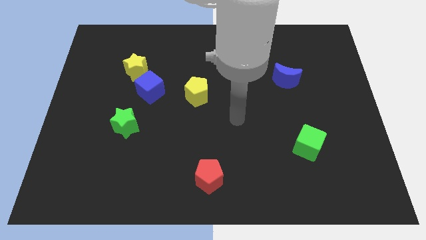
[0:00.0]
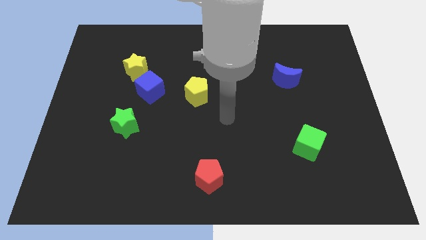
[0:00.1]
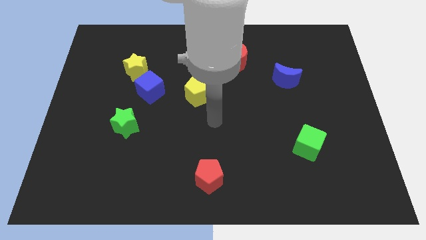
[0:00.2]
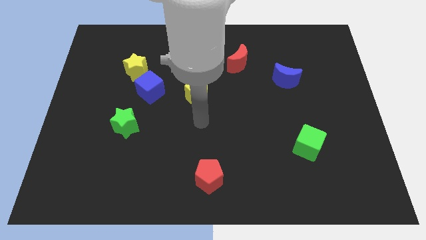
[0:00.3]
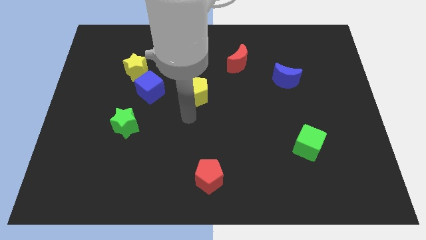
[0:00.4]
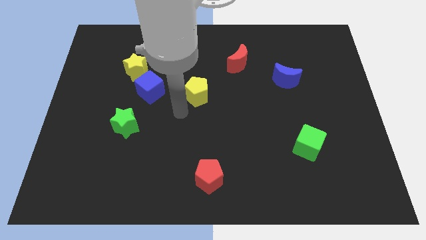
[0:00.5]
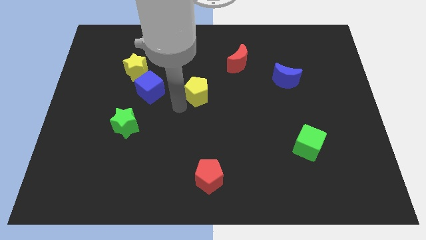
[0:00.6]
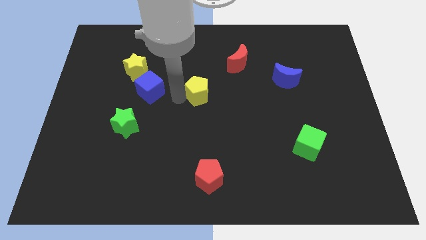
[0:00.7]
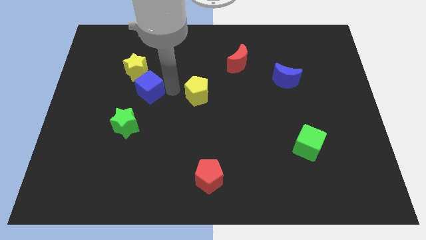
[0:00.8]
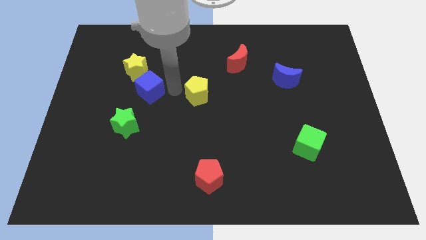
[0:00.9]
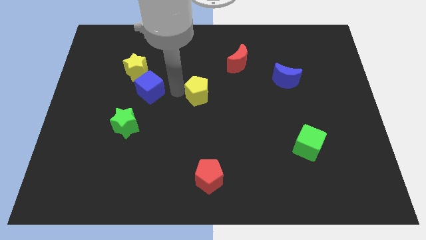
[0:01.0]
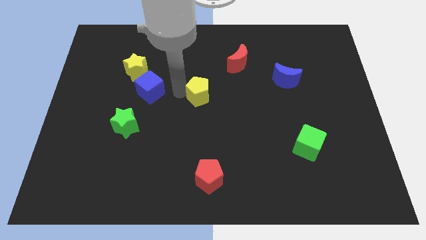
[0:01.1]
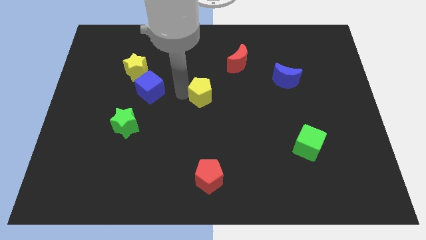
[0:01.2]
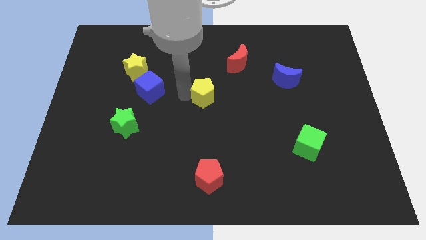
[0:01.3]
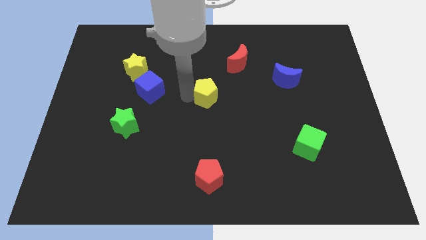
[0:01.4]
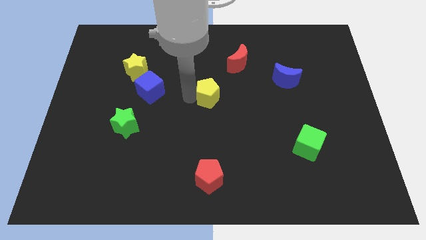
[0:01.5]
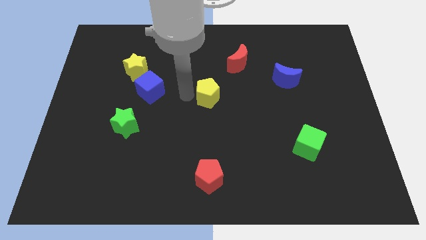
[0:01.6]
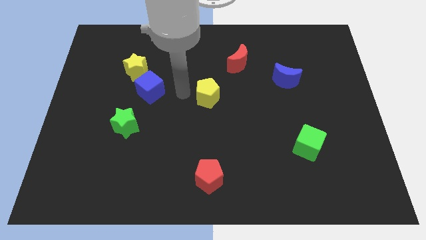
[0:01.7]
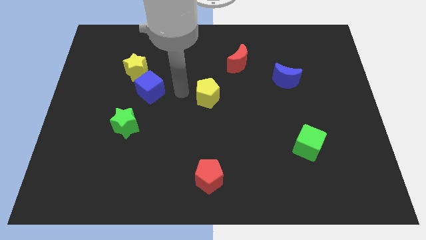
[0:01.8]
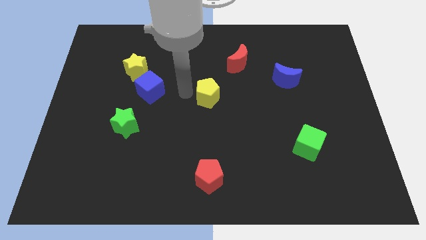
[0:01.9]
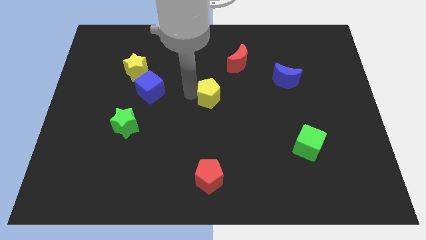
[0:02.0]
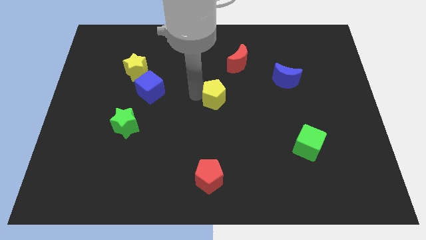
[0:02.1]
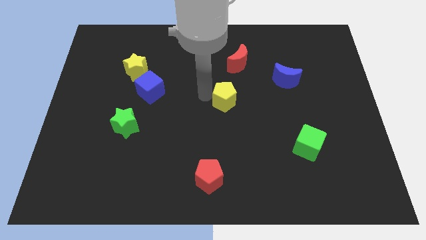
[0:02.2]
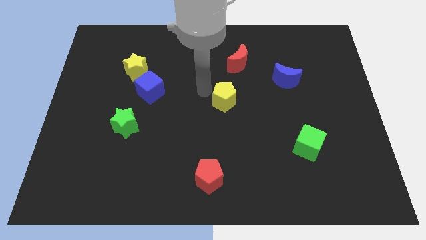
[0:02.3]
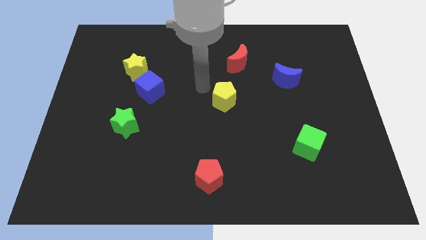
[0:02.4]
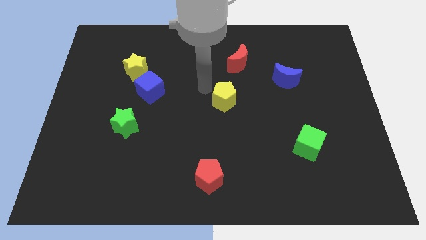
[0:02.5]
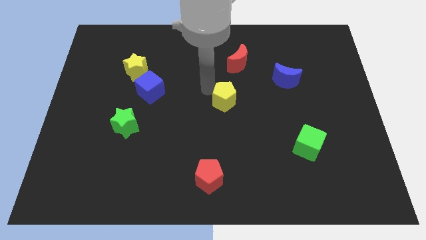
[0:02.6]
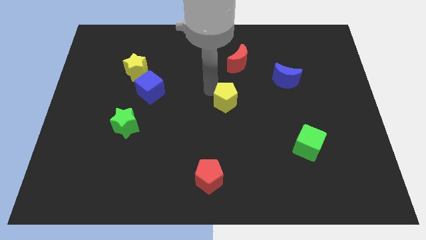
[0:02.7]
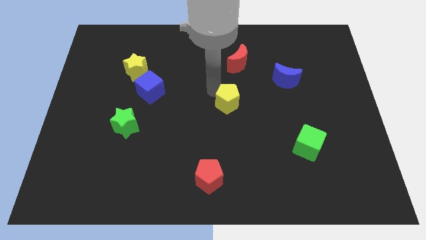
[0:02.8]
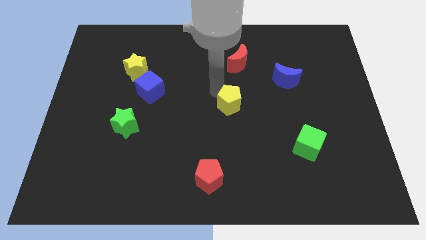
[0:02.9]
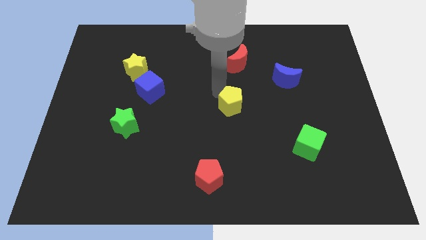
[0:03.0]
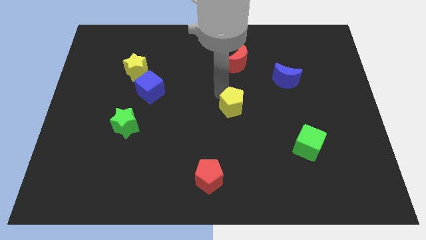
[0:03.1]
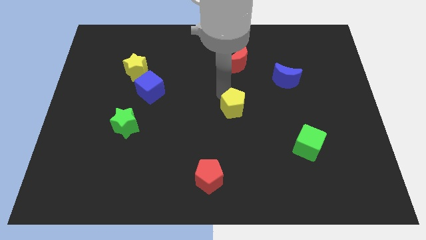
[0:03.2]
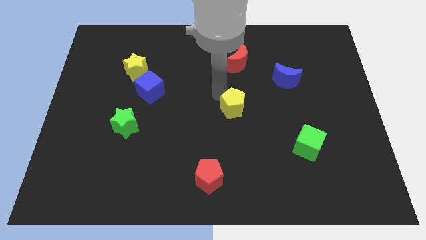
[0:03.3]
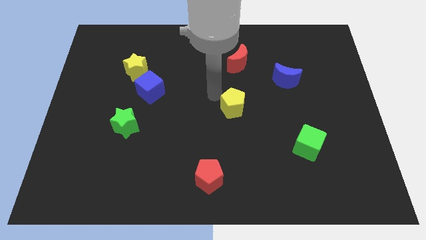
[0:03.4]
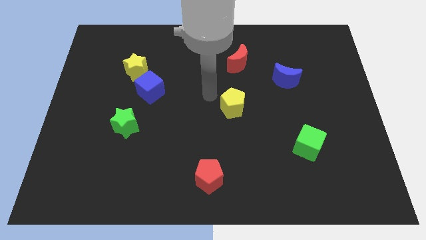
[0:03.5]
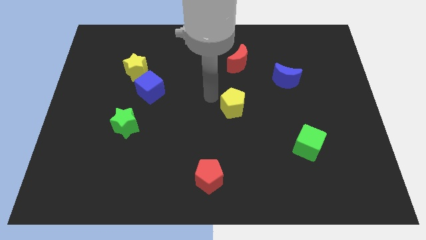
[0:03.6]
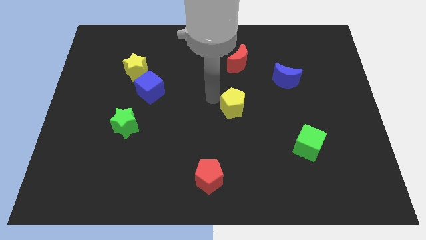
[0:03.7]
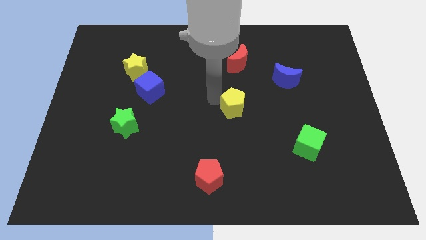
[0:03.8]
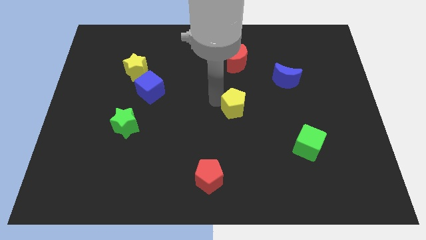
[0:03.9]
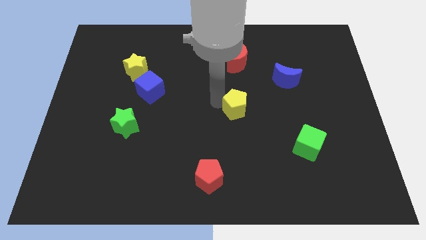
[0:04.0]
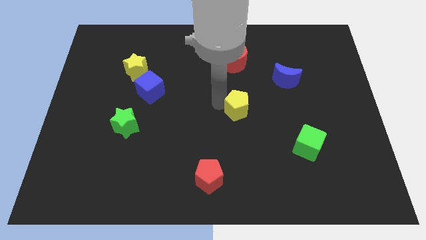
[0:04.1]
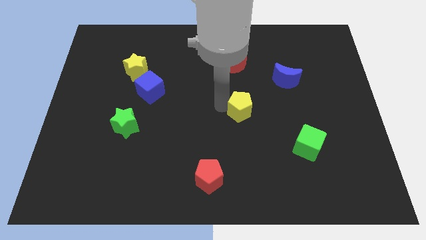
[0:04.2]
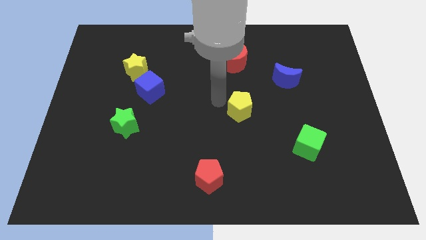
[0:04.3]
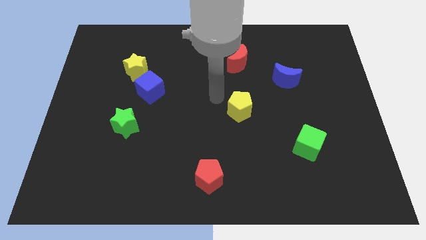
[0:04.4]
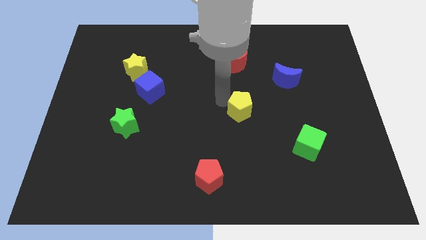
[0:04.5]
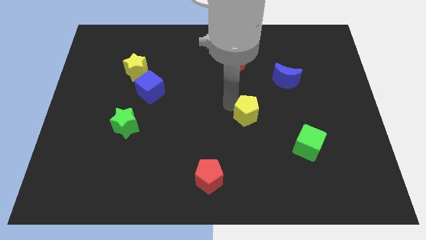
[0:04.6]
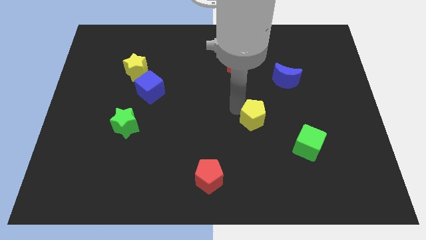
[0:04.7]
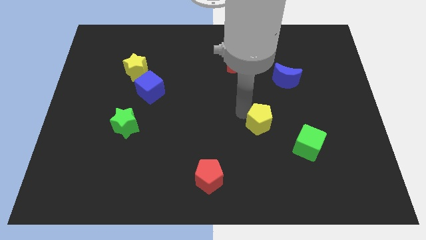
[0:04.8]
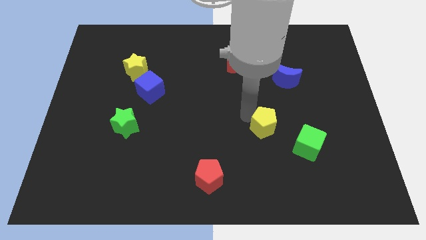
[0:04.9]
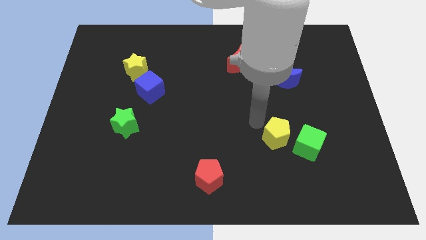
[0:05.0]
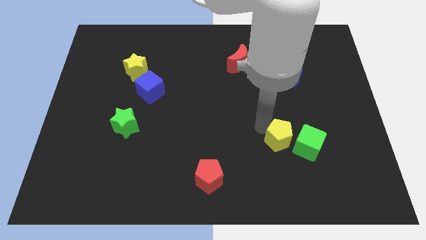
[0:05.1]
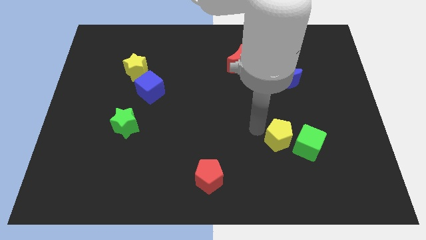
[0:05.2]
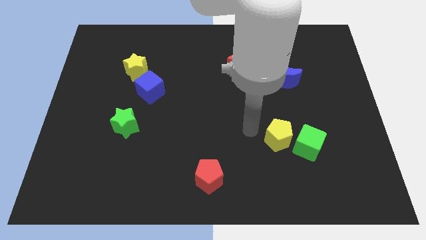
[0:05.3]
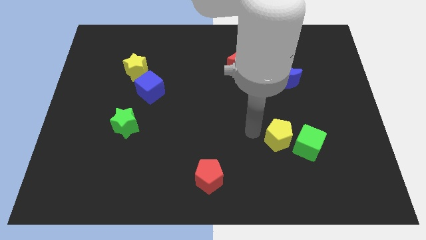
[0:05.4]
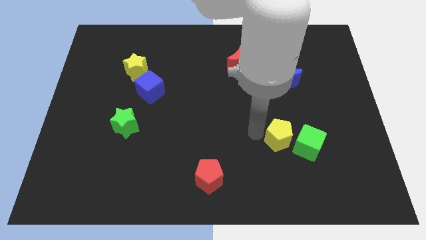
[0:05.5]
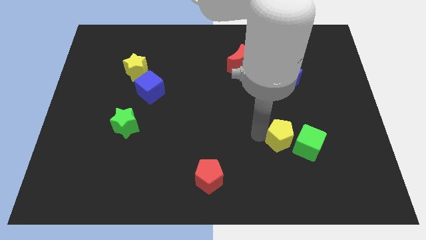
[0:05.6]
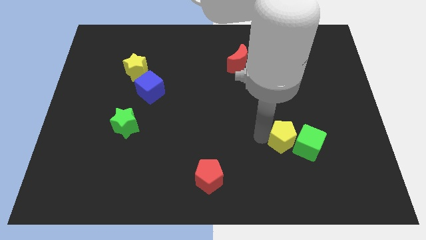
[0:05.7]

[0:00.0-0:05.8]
push the yellow pentagon to the green cube

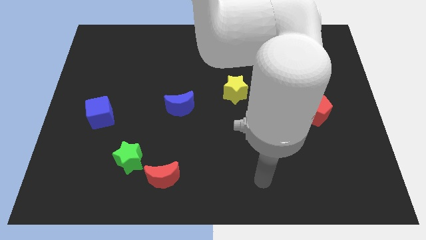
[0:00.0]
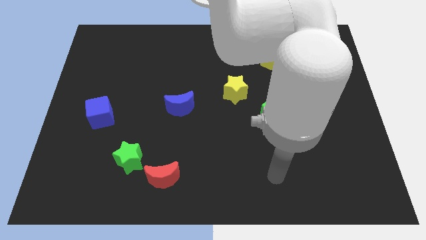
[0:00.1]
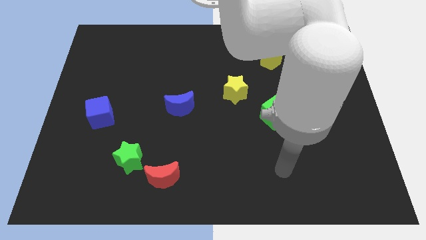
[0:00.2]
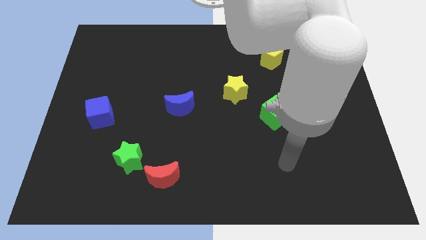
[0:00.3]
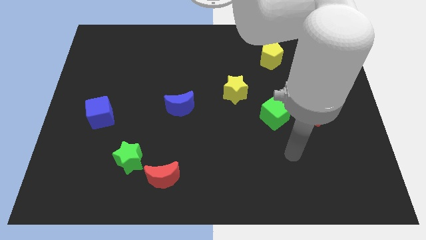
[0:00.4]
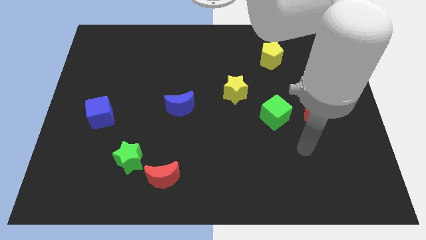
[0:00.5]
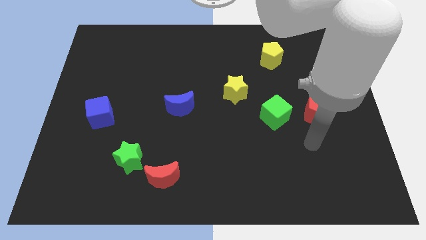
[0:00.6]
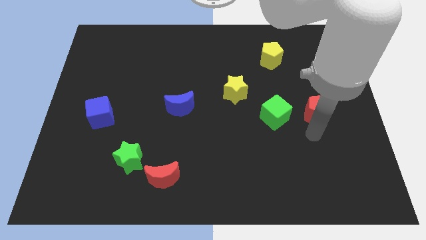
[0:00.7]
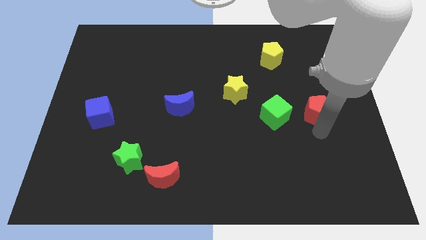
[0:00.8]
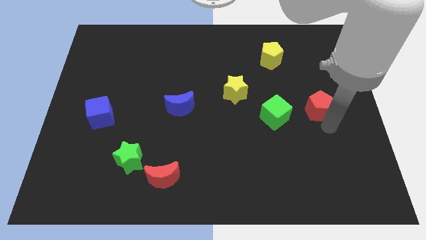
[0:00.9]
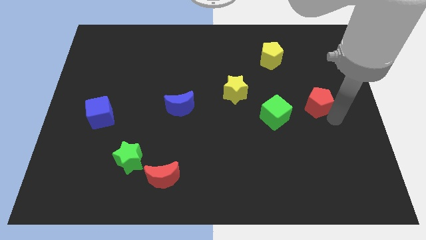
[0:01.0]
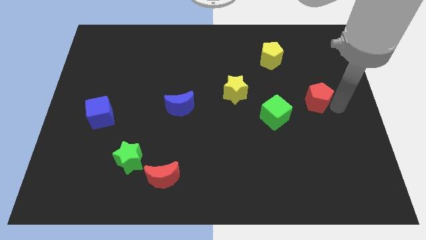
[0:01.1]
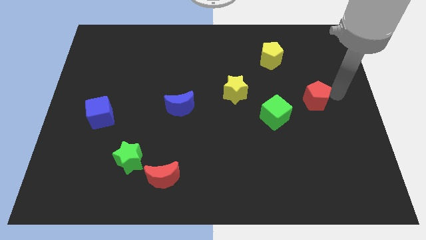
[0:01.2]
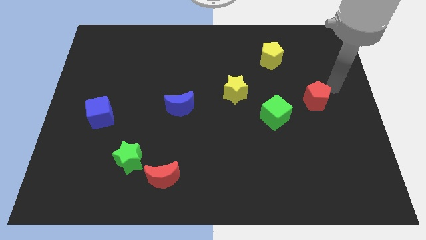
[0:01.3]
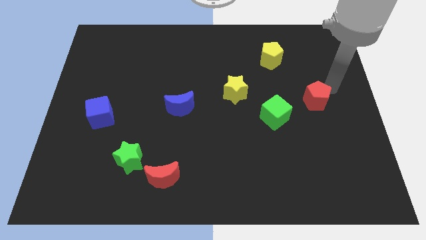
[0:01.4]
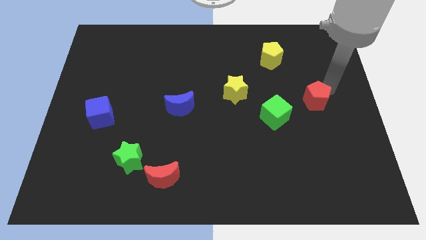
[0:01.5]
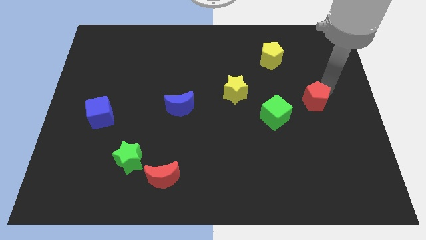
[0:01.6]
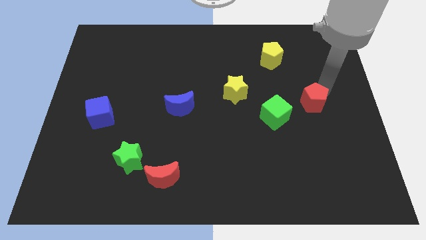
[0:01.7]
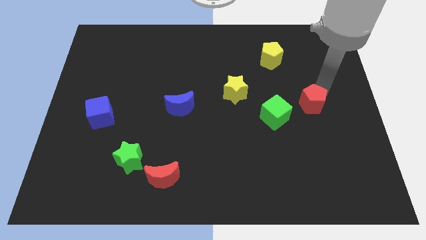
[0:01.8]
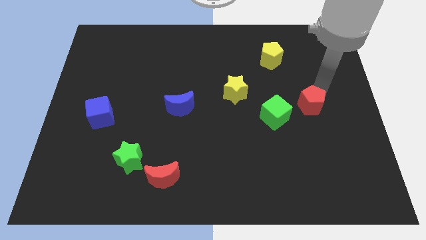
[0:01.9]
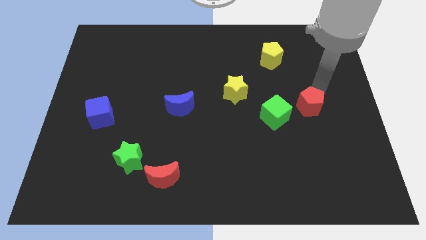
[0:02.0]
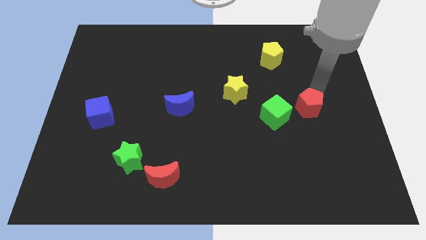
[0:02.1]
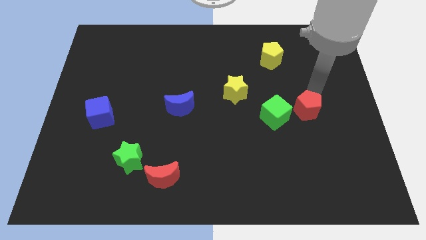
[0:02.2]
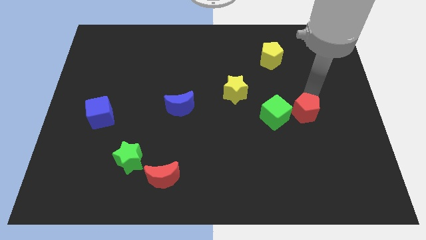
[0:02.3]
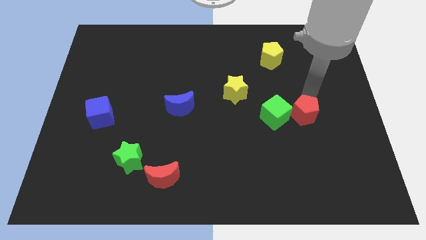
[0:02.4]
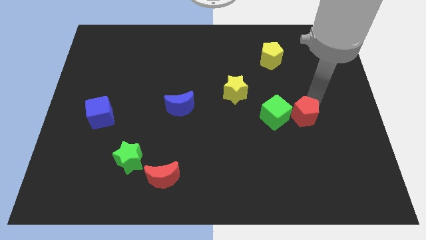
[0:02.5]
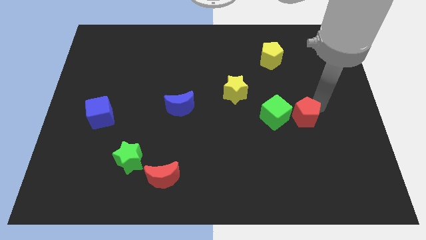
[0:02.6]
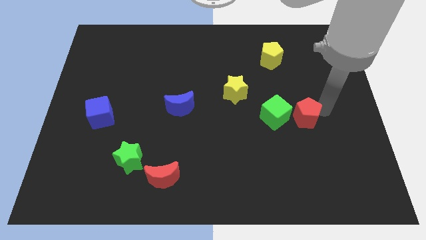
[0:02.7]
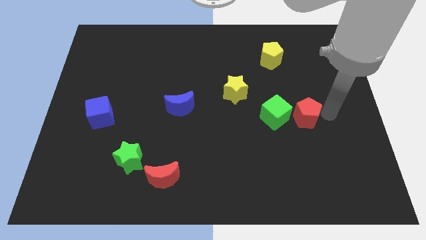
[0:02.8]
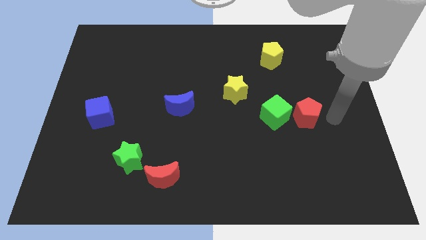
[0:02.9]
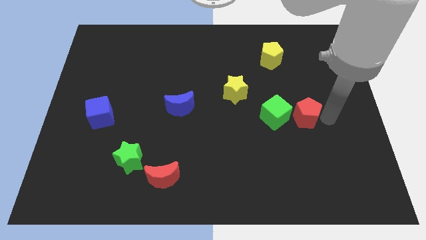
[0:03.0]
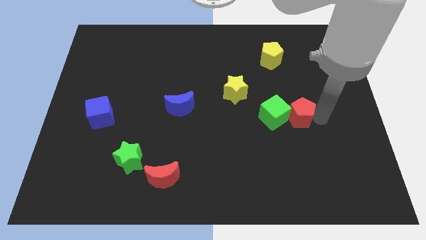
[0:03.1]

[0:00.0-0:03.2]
push the red pentagon towards the green cube
